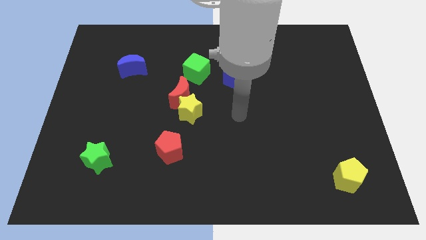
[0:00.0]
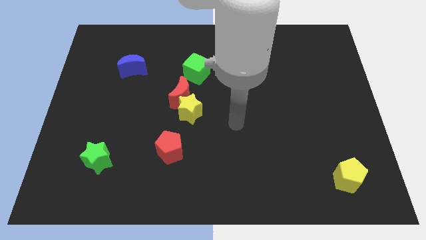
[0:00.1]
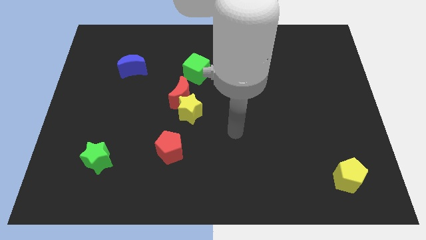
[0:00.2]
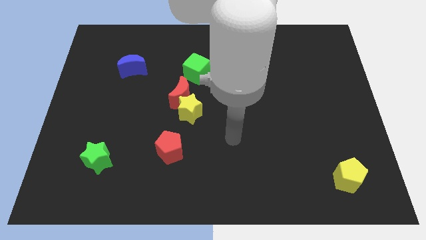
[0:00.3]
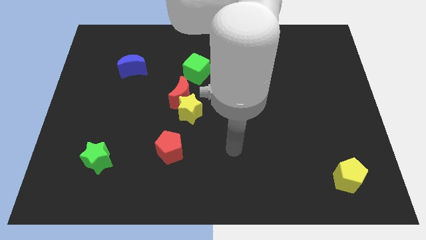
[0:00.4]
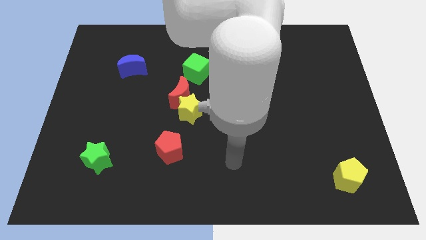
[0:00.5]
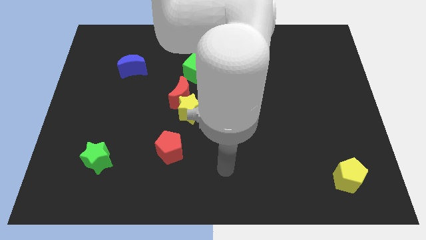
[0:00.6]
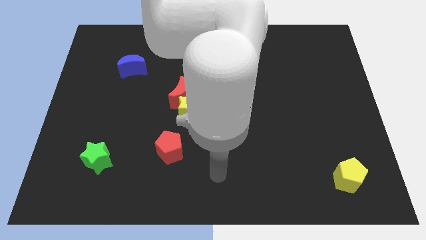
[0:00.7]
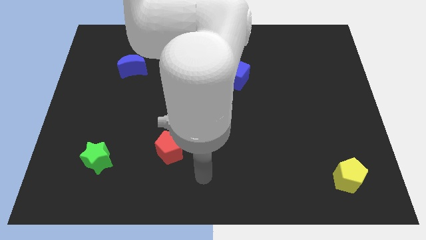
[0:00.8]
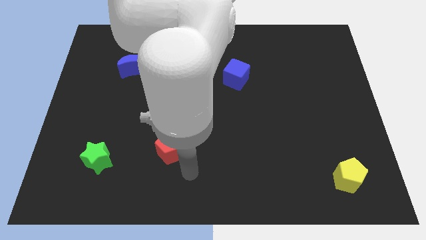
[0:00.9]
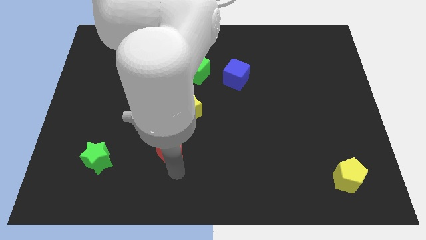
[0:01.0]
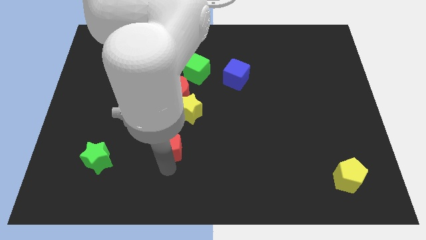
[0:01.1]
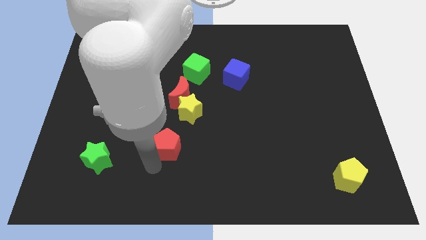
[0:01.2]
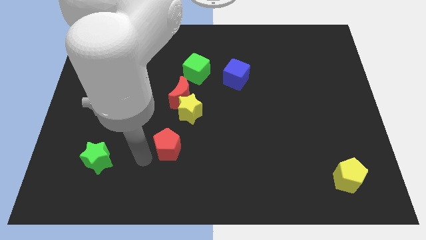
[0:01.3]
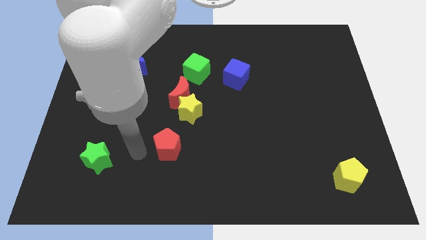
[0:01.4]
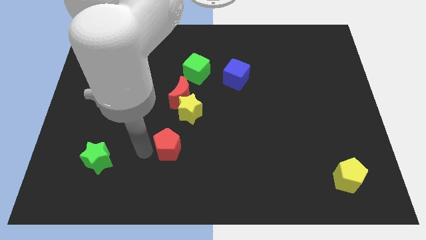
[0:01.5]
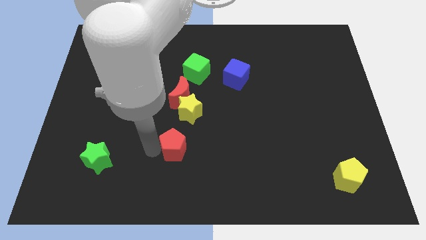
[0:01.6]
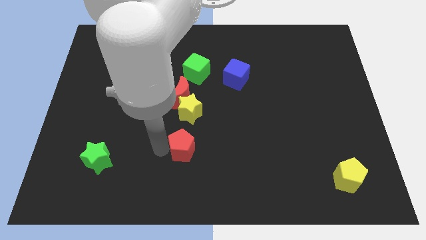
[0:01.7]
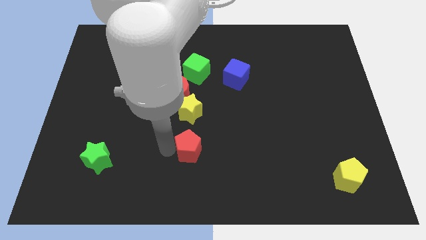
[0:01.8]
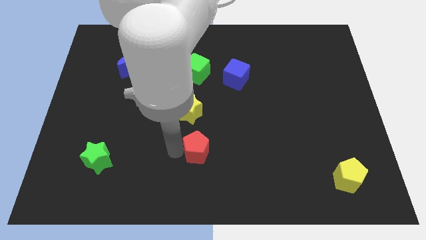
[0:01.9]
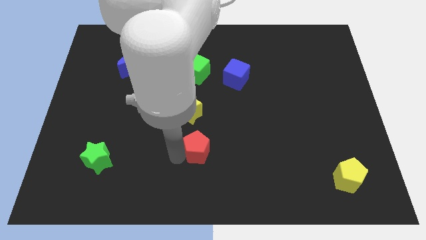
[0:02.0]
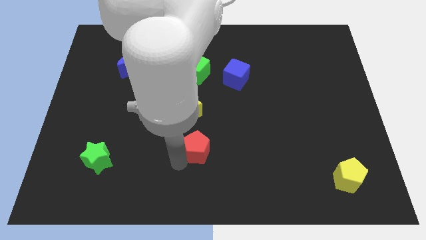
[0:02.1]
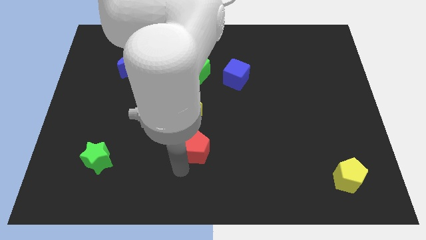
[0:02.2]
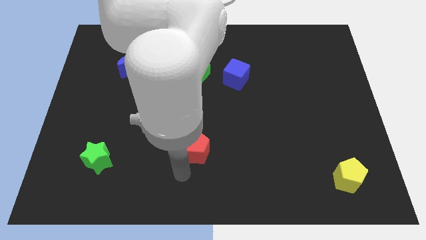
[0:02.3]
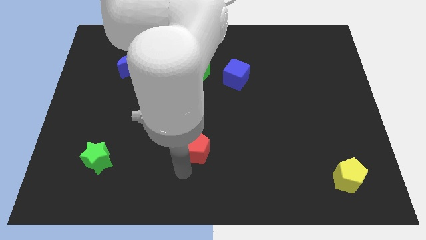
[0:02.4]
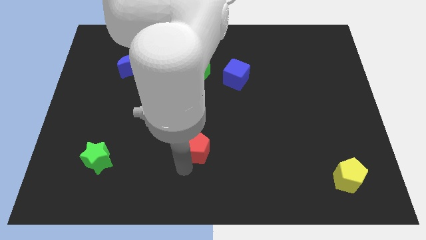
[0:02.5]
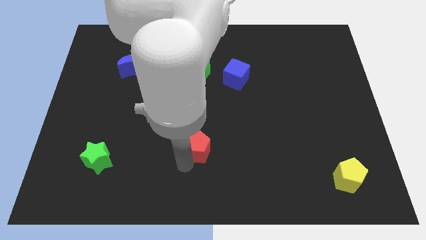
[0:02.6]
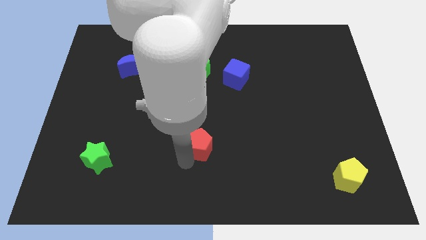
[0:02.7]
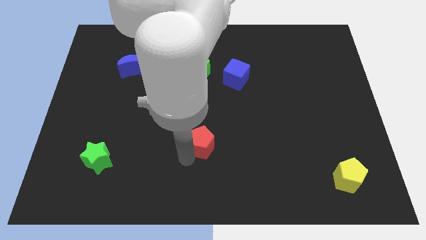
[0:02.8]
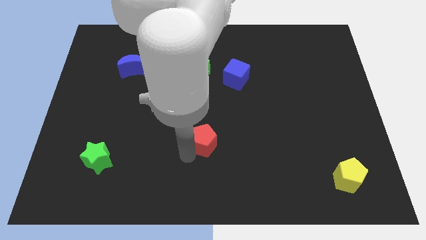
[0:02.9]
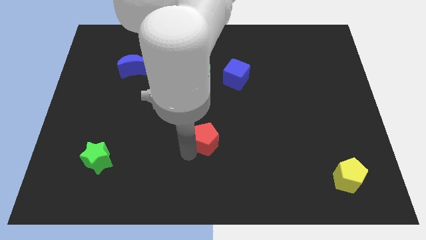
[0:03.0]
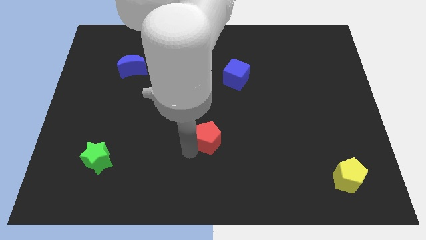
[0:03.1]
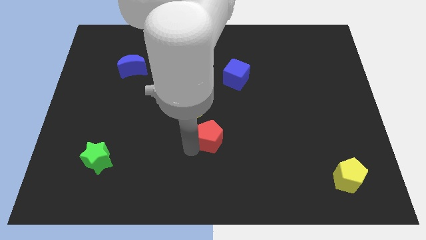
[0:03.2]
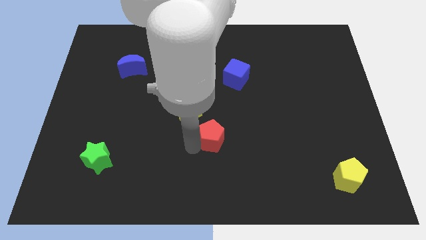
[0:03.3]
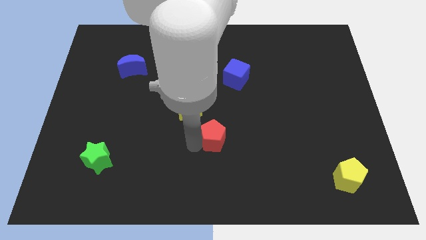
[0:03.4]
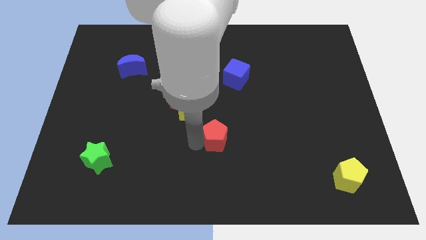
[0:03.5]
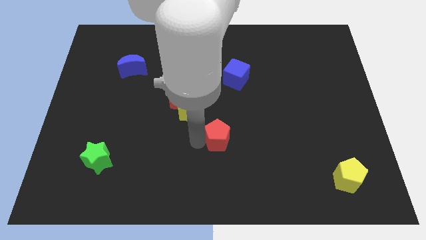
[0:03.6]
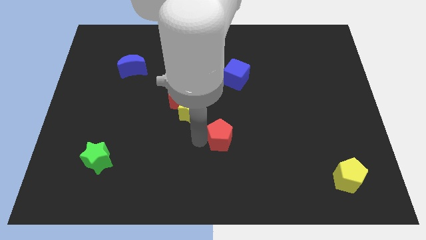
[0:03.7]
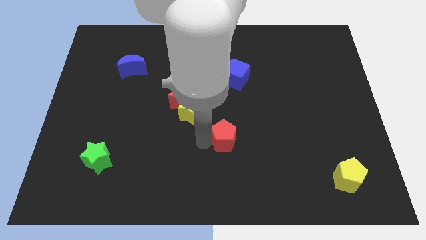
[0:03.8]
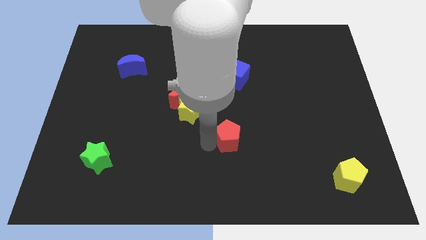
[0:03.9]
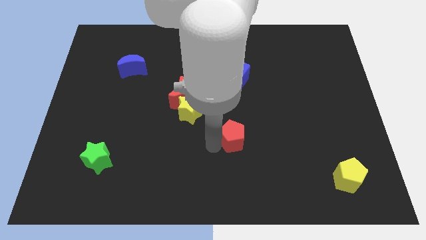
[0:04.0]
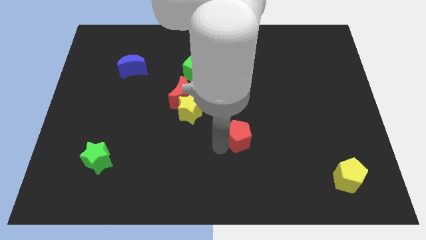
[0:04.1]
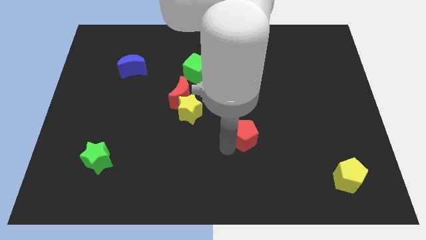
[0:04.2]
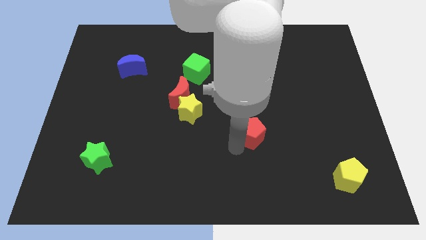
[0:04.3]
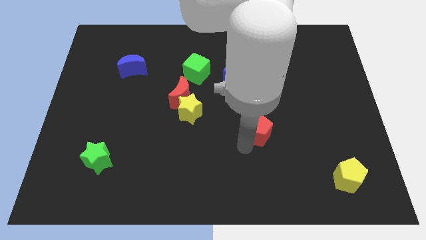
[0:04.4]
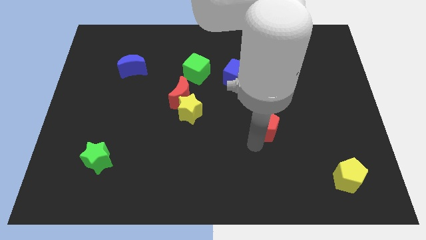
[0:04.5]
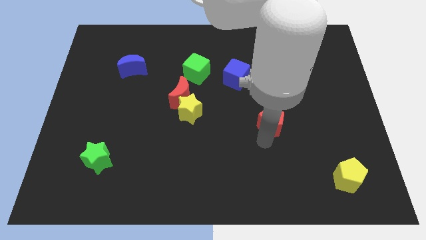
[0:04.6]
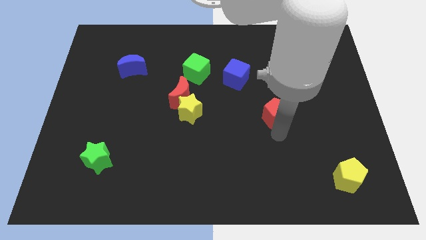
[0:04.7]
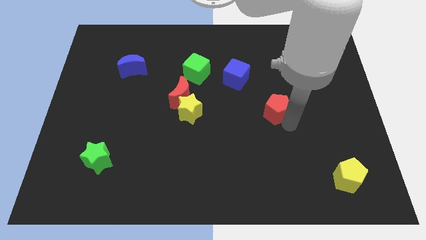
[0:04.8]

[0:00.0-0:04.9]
move the red pentagon upwards and right

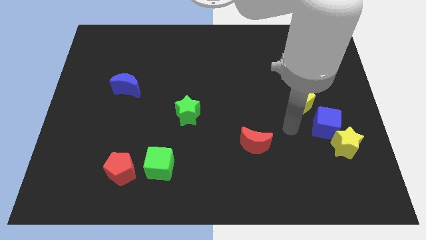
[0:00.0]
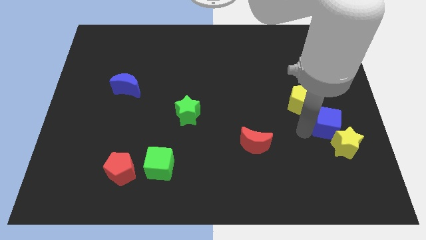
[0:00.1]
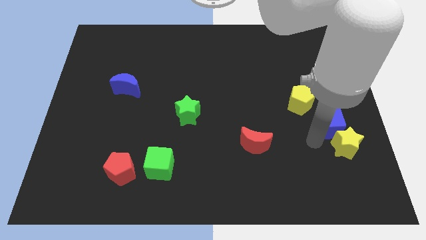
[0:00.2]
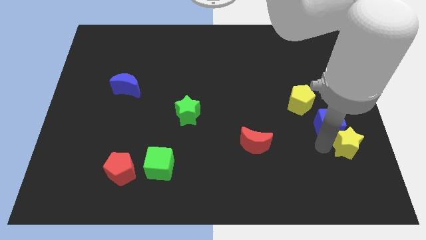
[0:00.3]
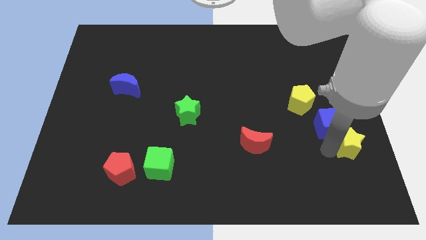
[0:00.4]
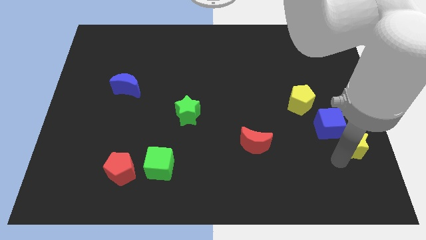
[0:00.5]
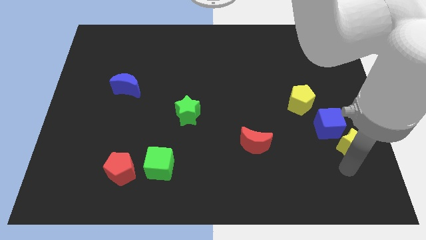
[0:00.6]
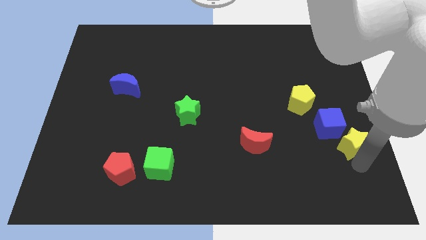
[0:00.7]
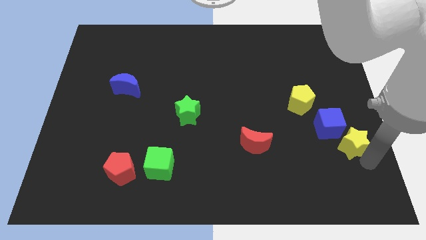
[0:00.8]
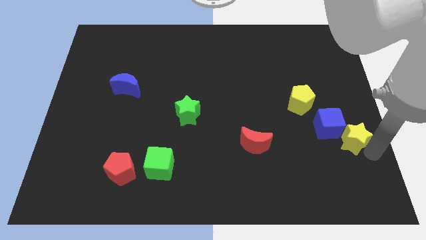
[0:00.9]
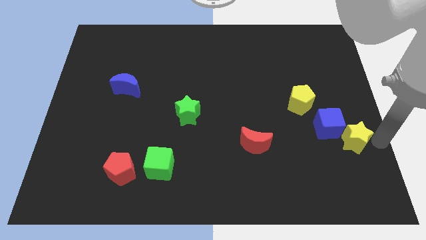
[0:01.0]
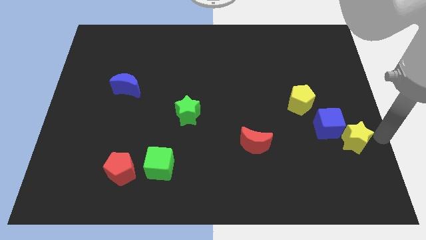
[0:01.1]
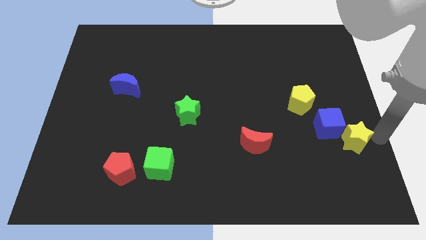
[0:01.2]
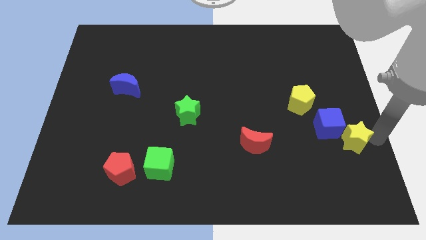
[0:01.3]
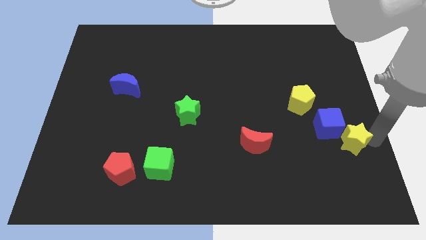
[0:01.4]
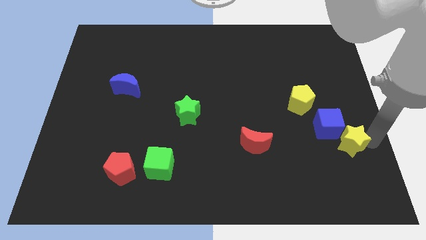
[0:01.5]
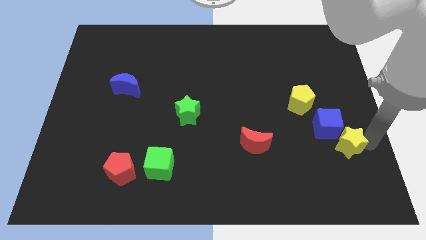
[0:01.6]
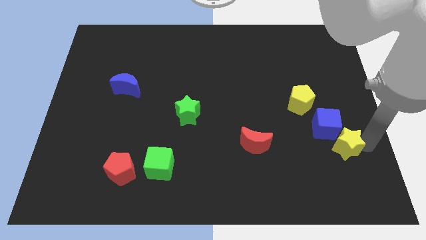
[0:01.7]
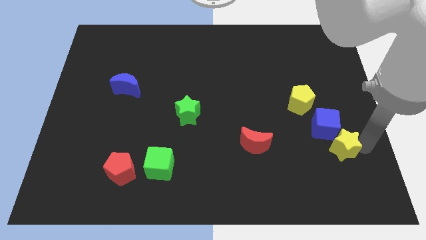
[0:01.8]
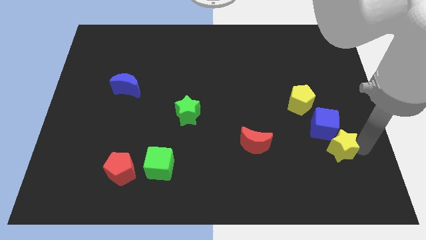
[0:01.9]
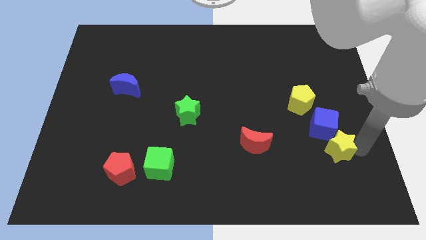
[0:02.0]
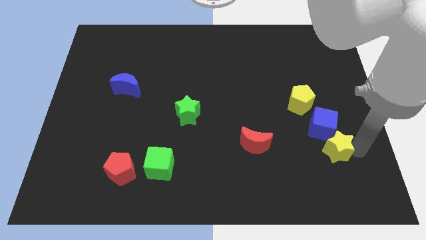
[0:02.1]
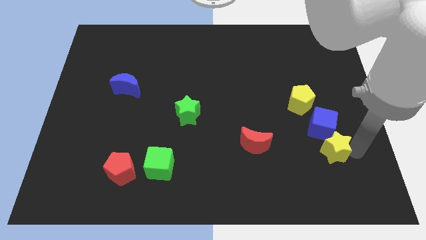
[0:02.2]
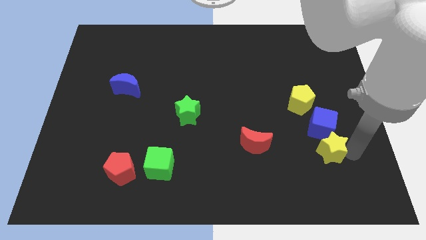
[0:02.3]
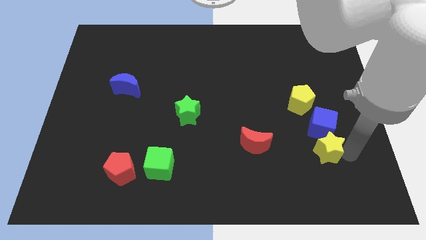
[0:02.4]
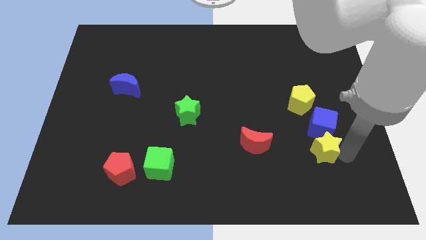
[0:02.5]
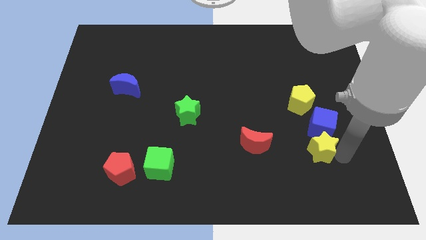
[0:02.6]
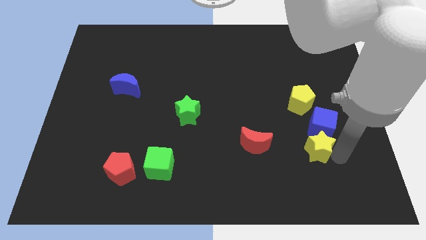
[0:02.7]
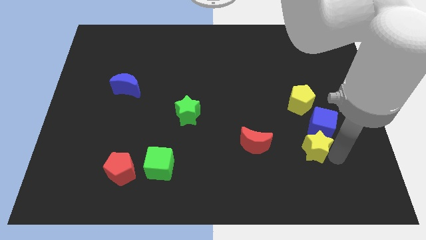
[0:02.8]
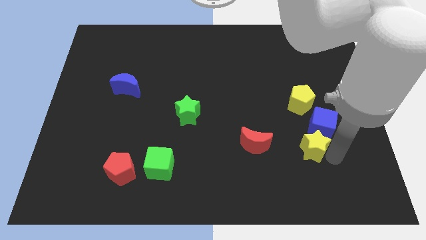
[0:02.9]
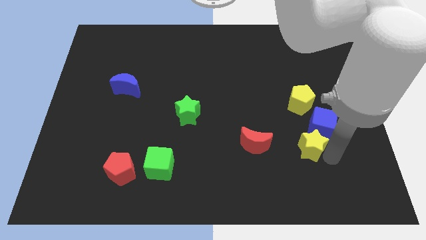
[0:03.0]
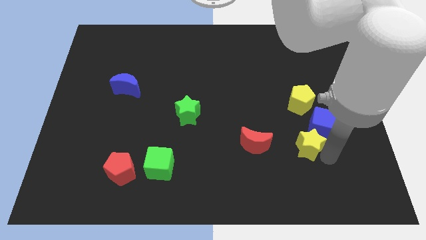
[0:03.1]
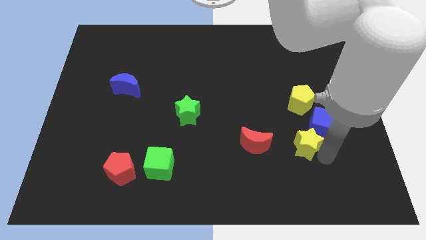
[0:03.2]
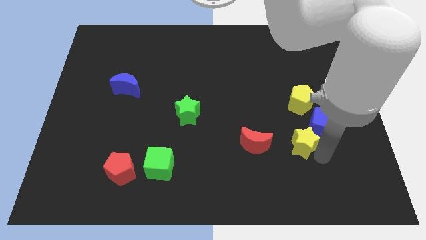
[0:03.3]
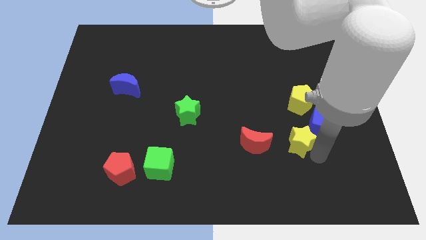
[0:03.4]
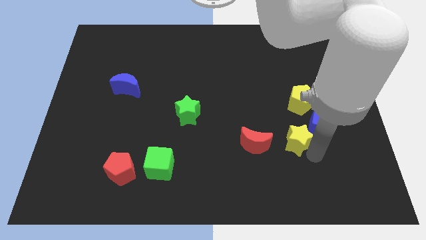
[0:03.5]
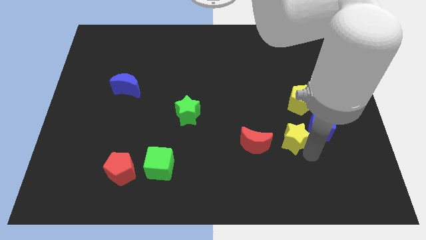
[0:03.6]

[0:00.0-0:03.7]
slightly push the yellow star upwards and then left
